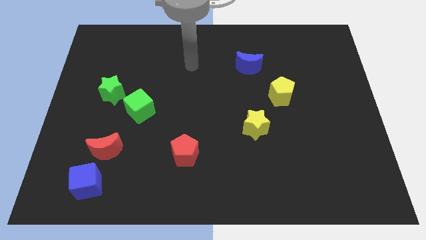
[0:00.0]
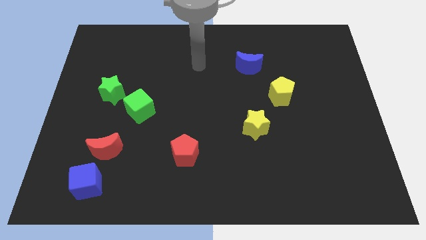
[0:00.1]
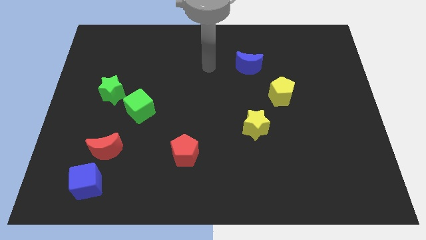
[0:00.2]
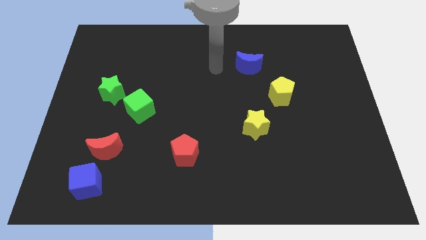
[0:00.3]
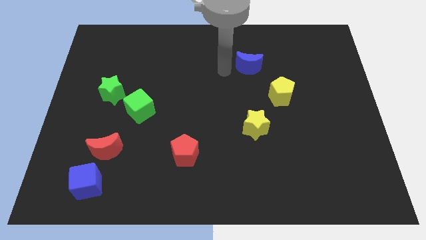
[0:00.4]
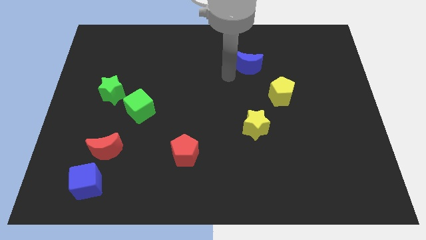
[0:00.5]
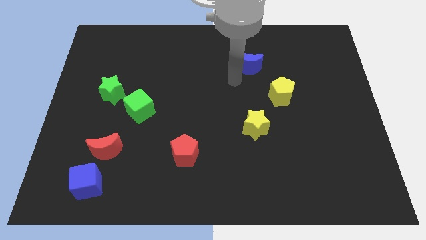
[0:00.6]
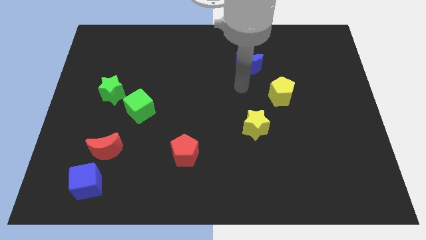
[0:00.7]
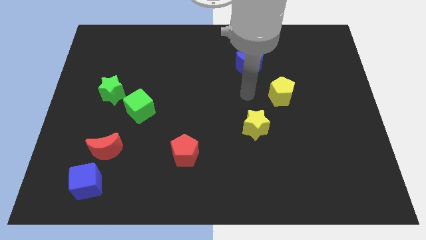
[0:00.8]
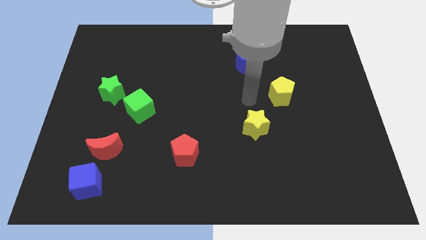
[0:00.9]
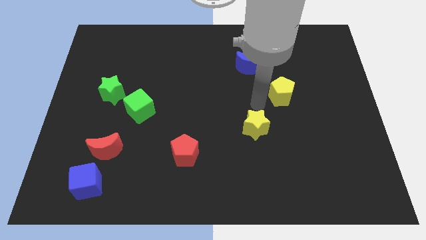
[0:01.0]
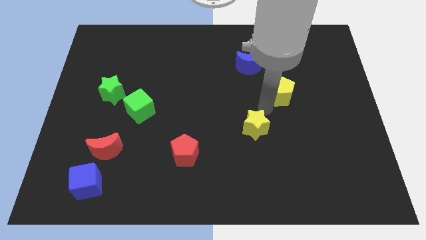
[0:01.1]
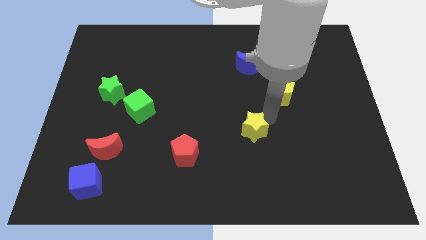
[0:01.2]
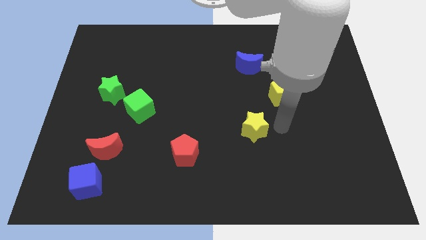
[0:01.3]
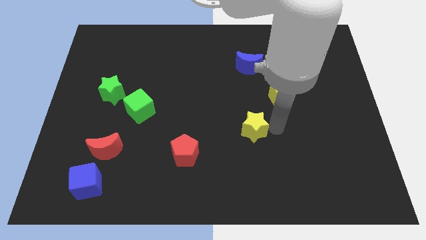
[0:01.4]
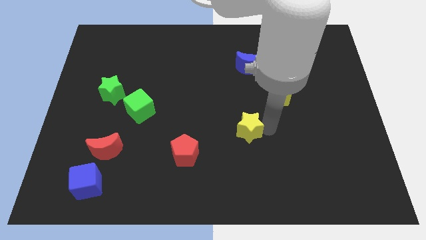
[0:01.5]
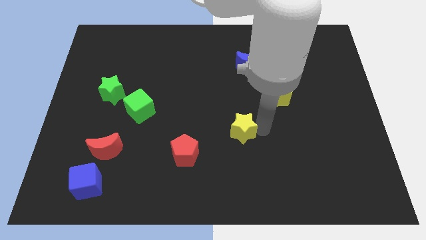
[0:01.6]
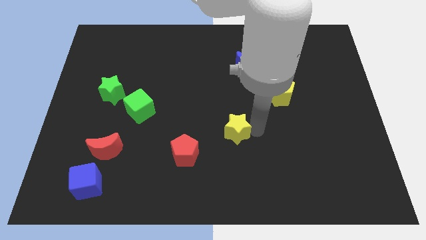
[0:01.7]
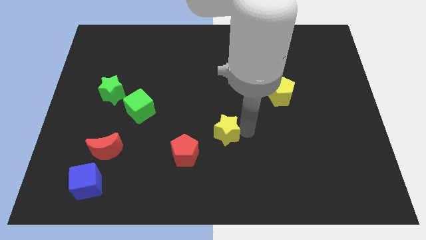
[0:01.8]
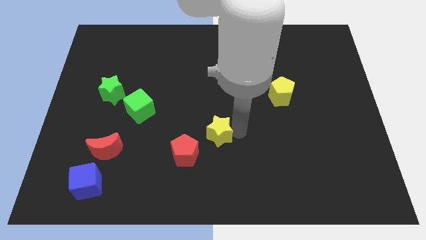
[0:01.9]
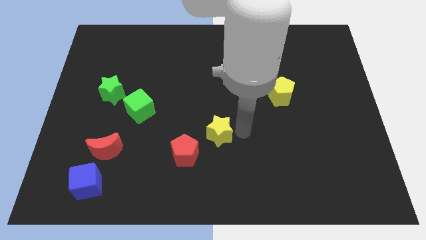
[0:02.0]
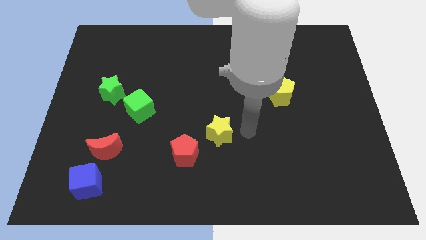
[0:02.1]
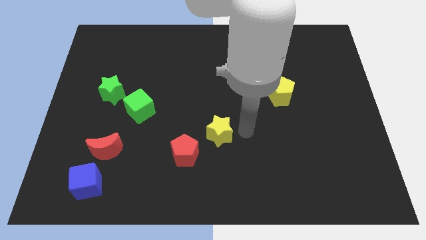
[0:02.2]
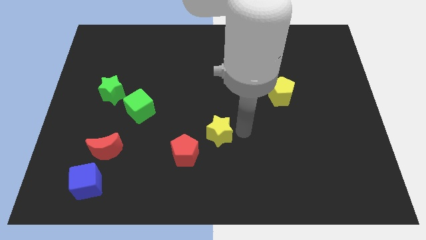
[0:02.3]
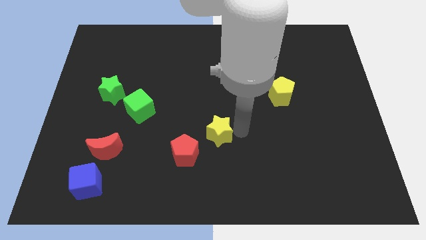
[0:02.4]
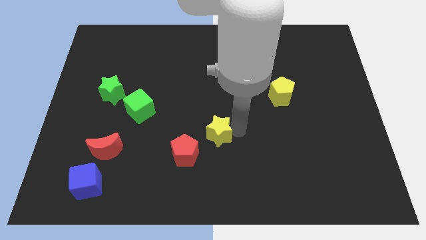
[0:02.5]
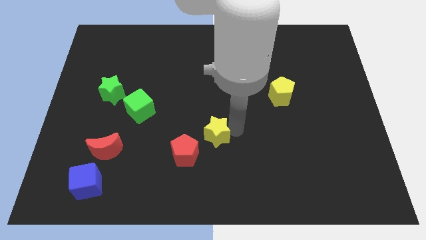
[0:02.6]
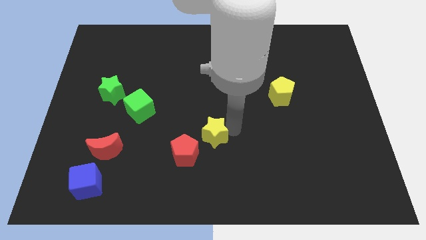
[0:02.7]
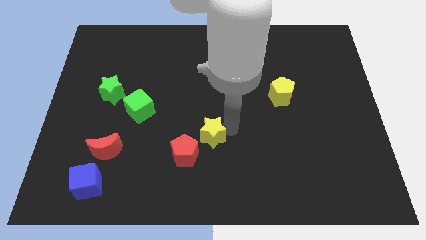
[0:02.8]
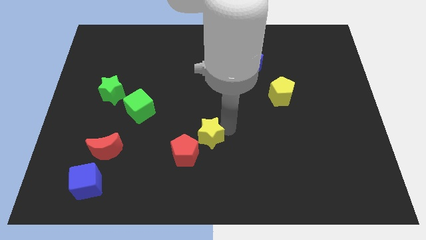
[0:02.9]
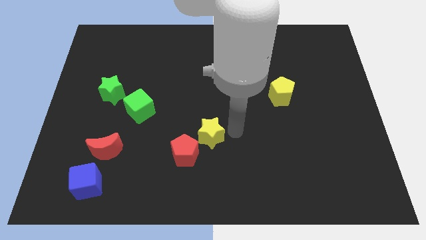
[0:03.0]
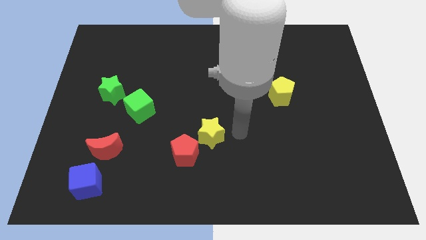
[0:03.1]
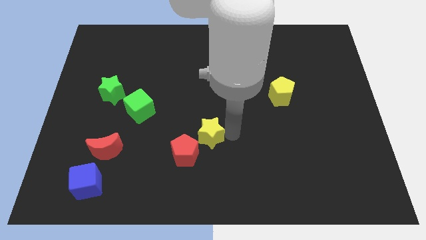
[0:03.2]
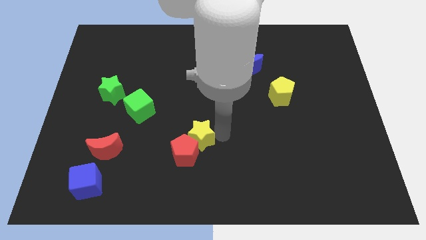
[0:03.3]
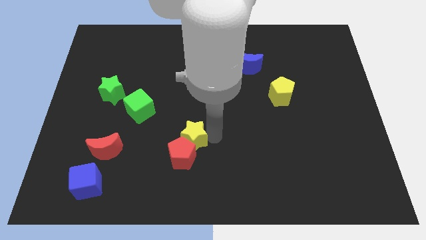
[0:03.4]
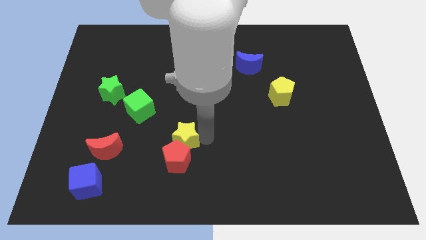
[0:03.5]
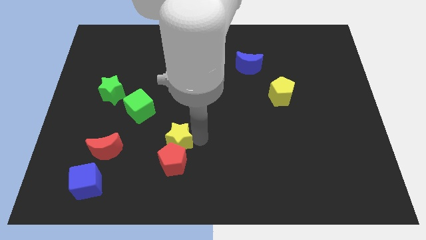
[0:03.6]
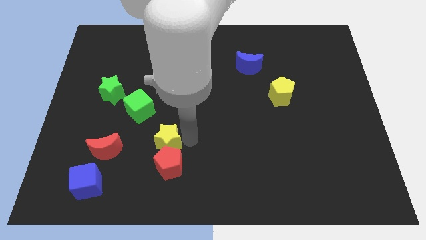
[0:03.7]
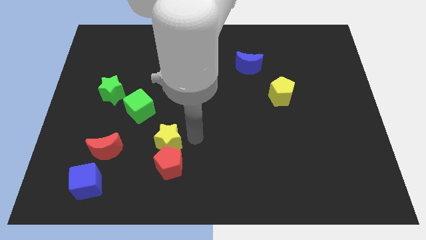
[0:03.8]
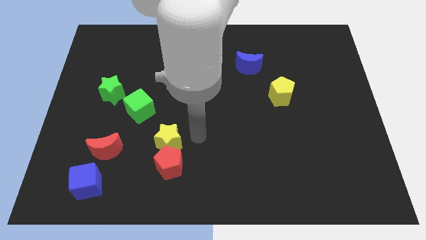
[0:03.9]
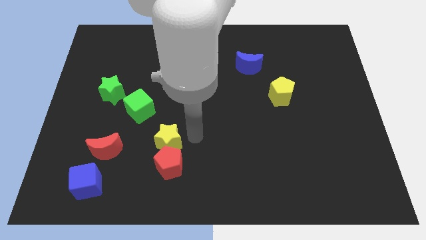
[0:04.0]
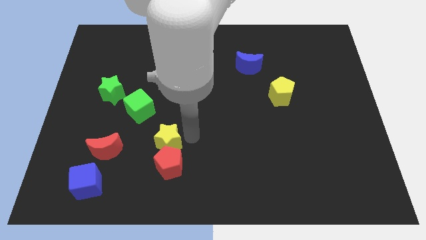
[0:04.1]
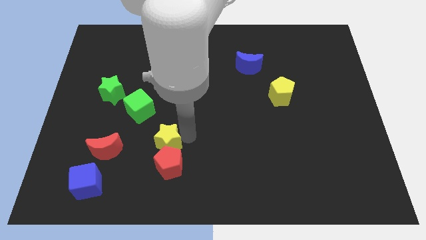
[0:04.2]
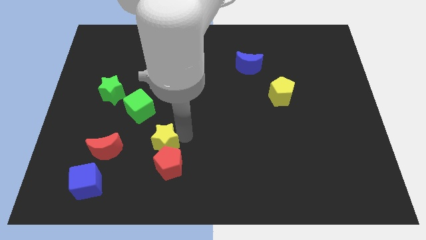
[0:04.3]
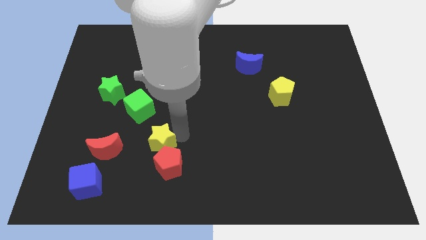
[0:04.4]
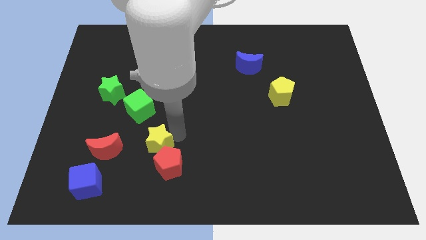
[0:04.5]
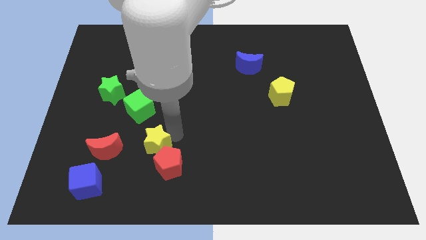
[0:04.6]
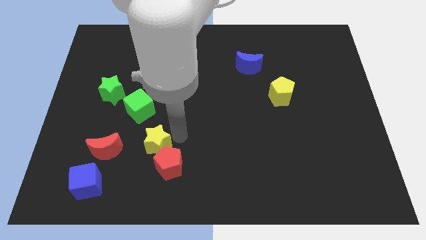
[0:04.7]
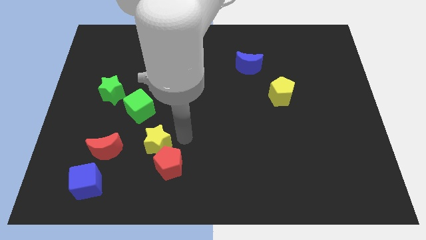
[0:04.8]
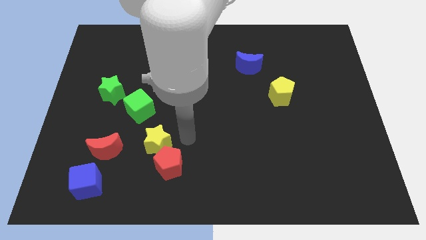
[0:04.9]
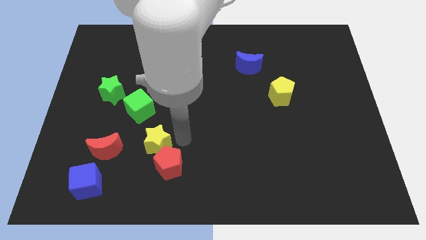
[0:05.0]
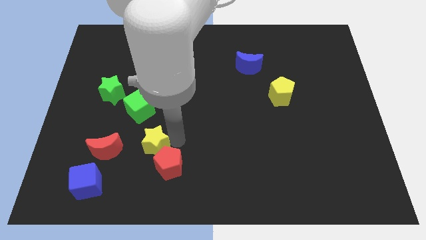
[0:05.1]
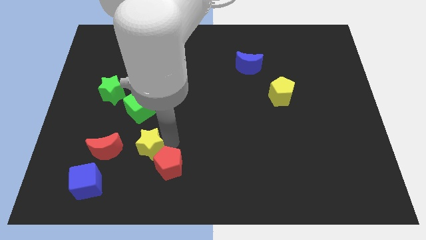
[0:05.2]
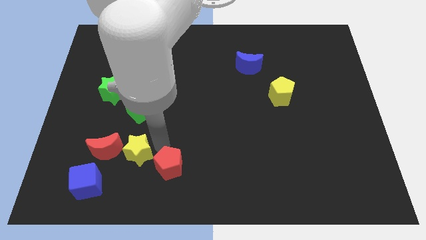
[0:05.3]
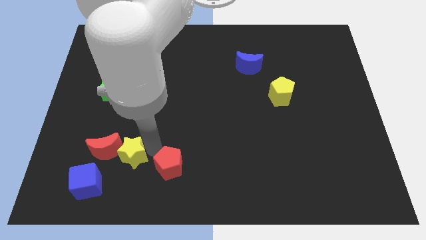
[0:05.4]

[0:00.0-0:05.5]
put the yellow star to the red moon

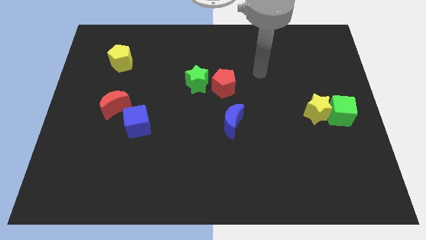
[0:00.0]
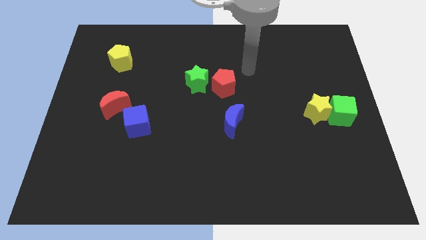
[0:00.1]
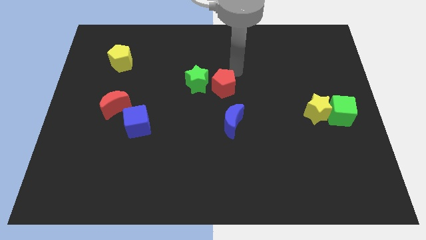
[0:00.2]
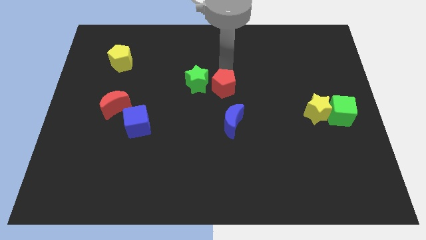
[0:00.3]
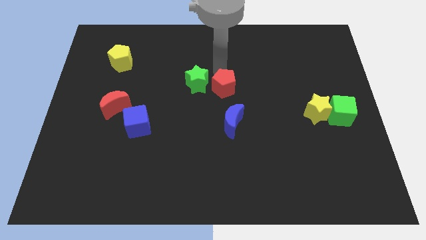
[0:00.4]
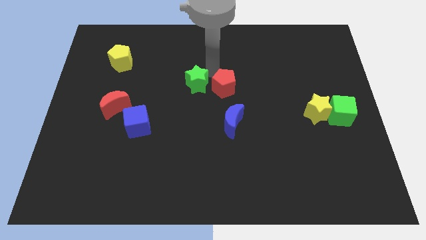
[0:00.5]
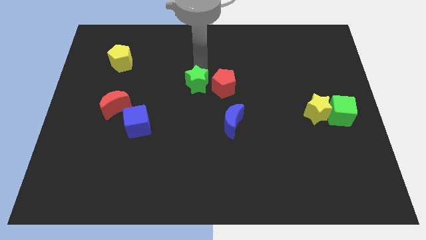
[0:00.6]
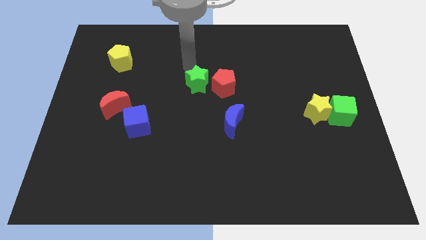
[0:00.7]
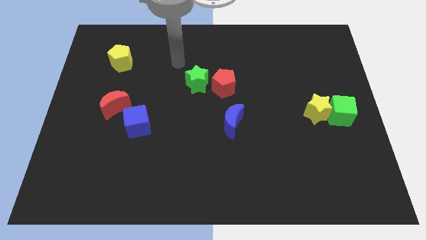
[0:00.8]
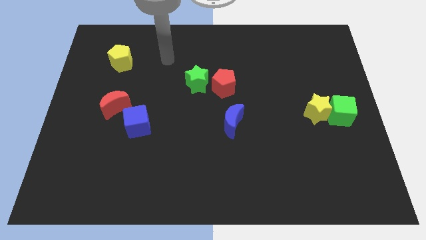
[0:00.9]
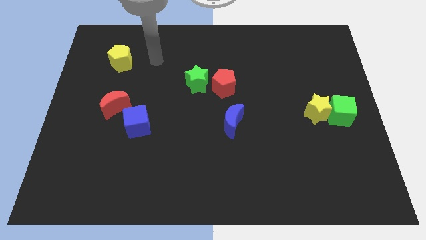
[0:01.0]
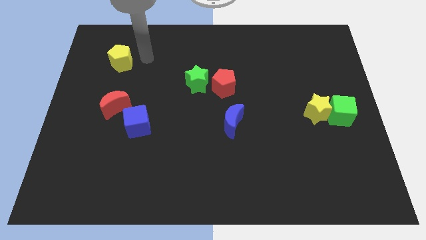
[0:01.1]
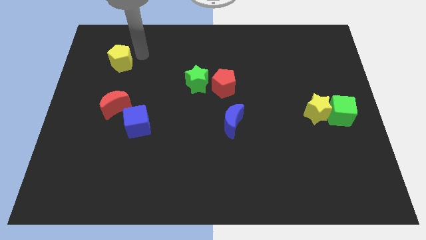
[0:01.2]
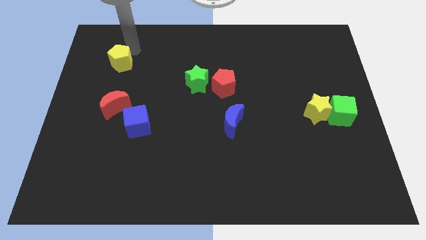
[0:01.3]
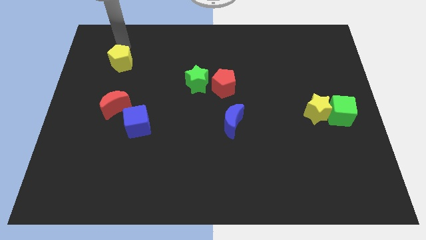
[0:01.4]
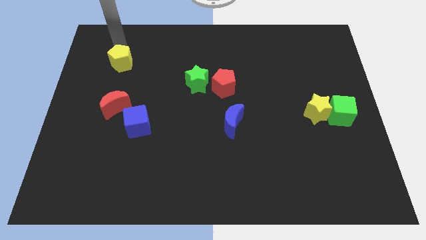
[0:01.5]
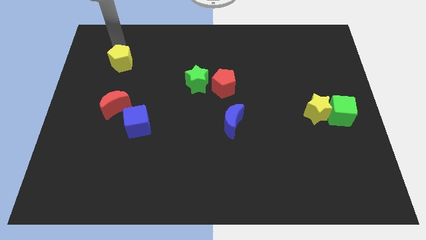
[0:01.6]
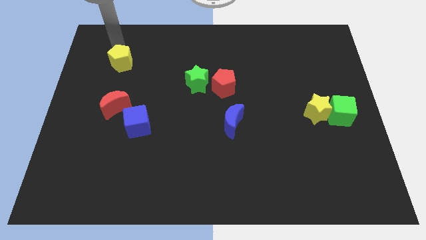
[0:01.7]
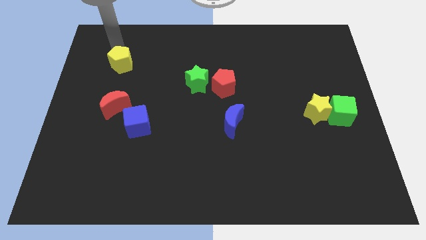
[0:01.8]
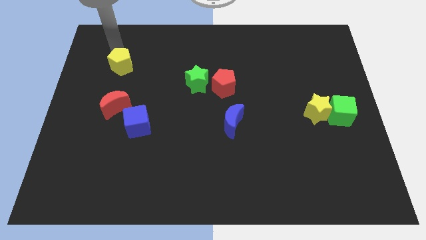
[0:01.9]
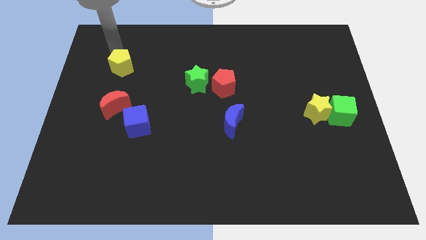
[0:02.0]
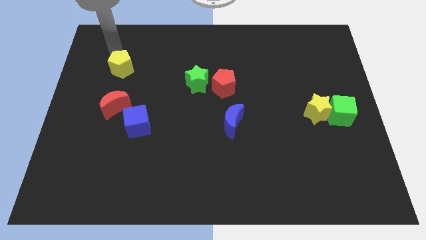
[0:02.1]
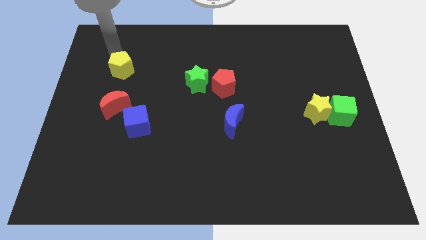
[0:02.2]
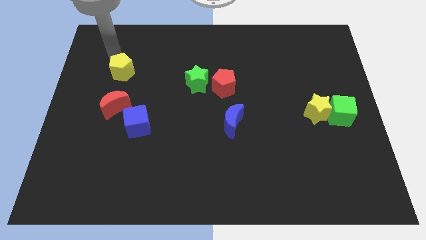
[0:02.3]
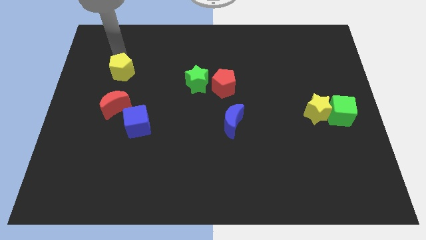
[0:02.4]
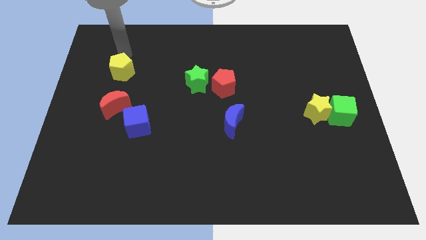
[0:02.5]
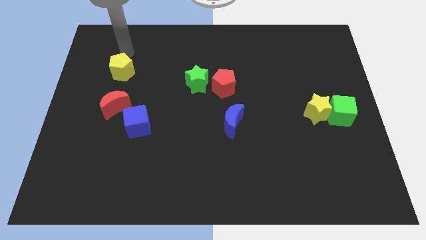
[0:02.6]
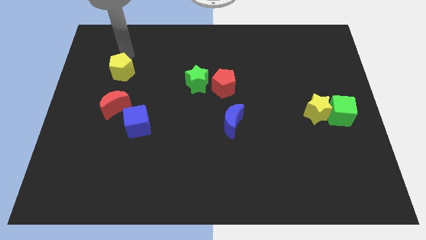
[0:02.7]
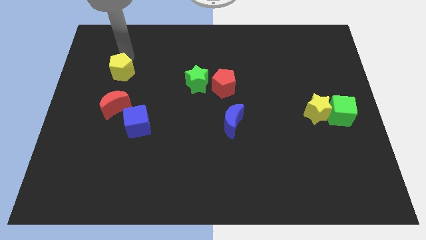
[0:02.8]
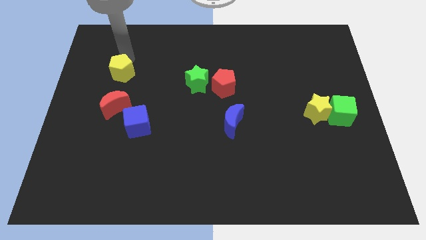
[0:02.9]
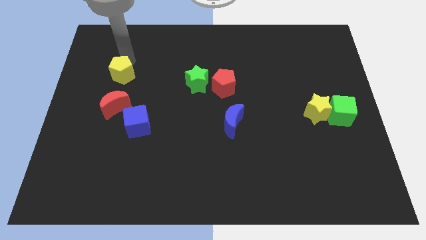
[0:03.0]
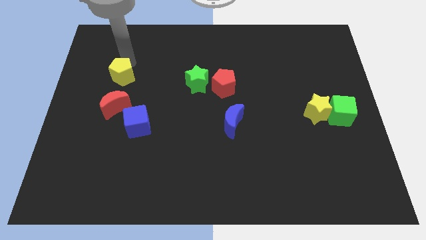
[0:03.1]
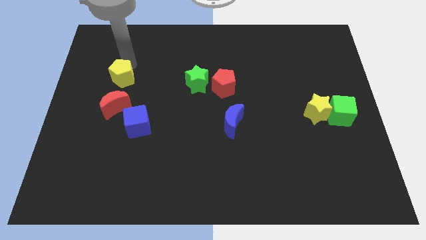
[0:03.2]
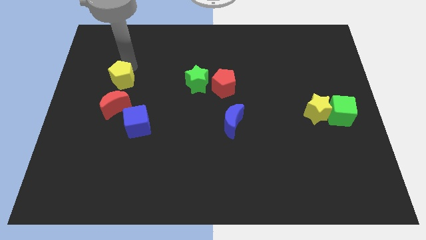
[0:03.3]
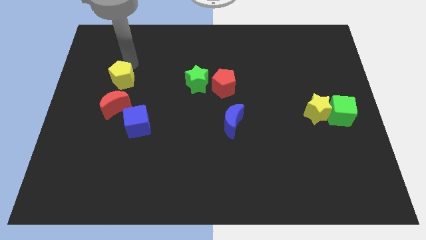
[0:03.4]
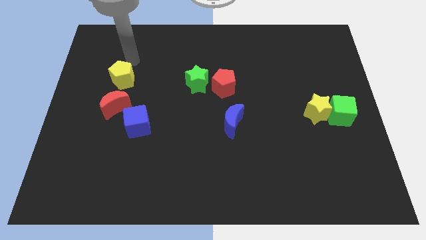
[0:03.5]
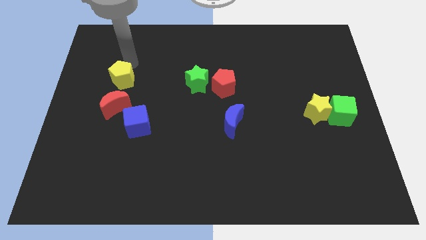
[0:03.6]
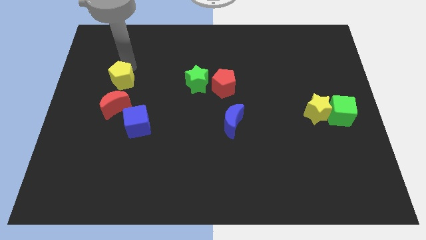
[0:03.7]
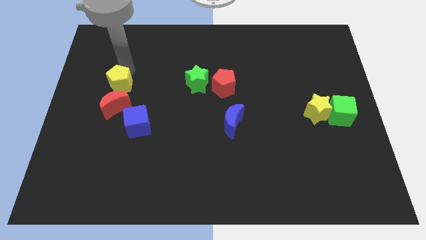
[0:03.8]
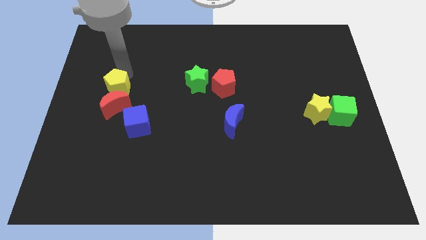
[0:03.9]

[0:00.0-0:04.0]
move the yellow pentagon to the red moon
